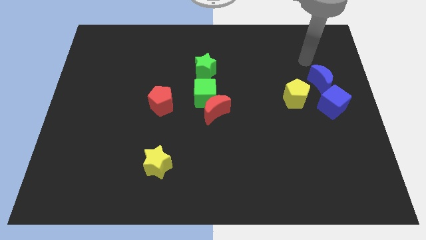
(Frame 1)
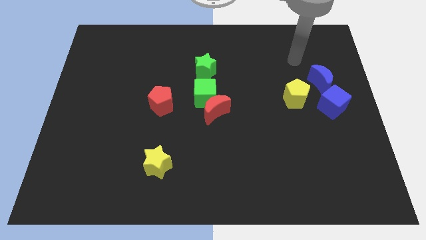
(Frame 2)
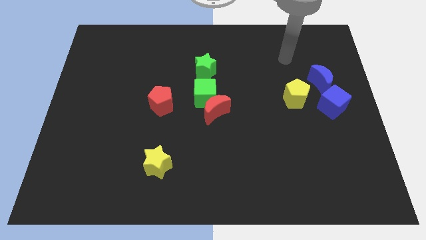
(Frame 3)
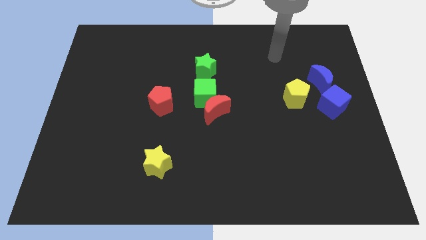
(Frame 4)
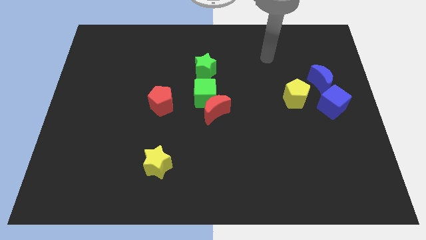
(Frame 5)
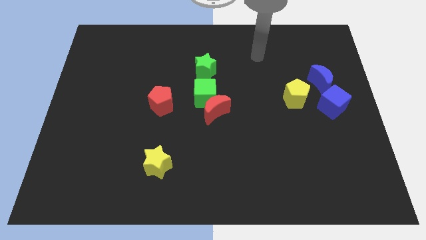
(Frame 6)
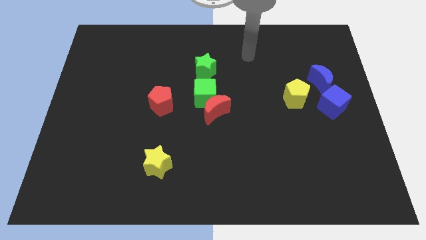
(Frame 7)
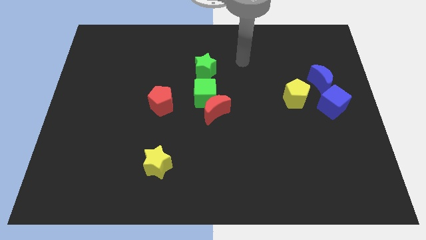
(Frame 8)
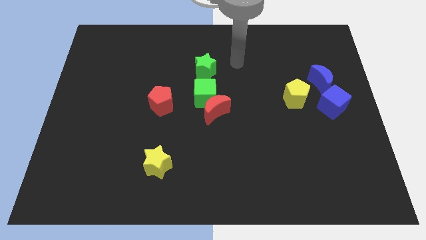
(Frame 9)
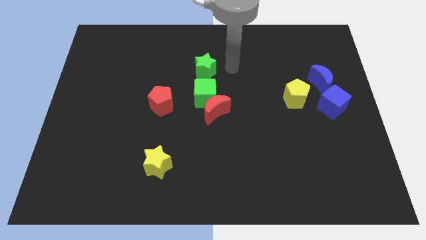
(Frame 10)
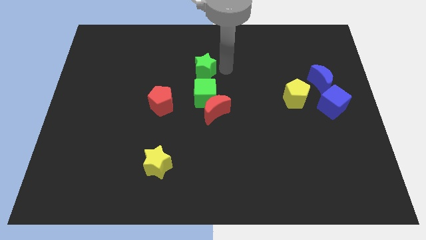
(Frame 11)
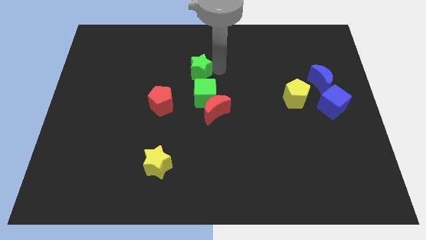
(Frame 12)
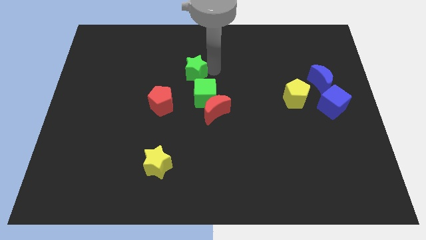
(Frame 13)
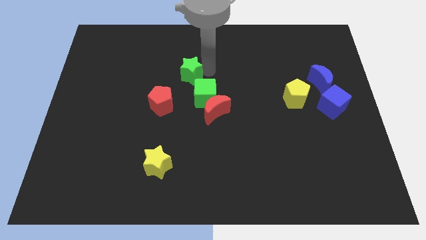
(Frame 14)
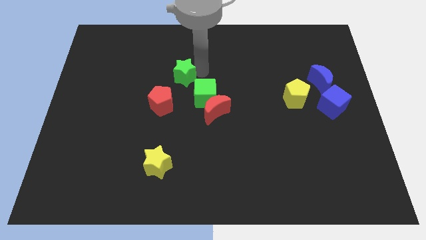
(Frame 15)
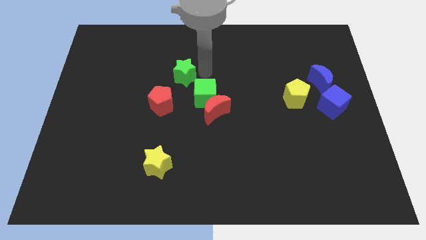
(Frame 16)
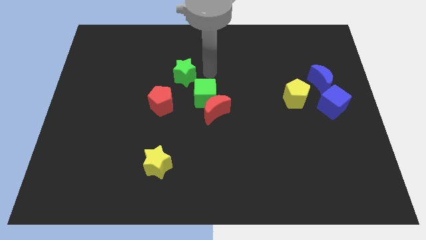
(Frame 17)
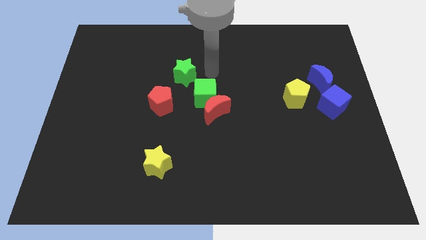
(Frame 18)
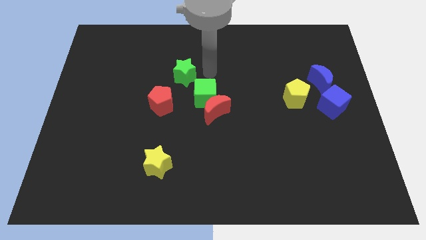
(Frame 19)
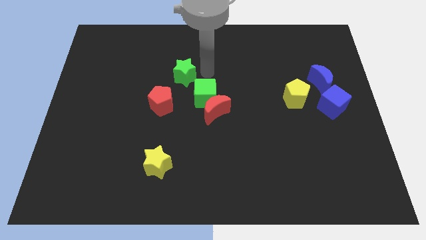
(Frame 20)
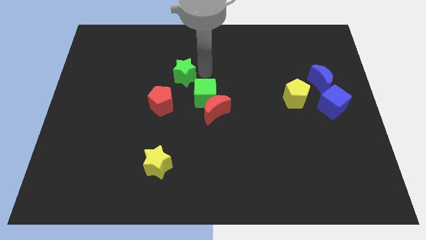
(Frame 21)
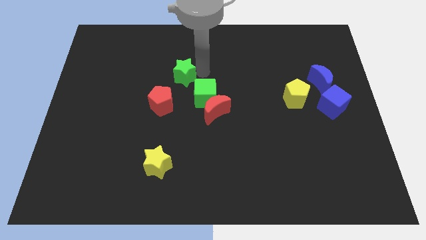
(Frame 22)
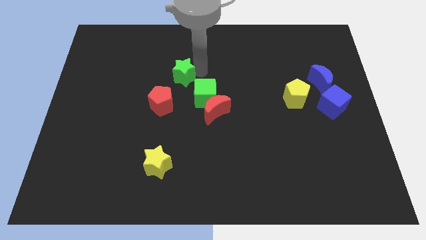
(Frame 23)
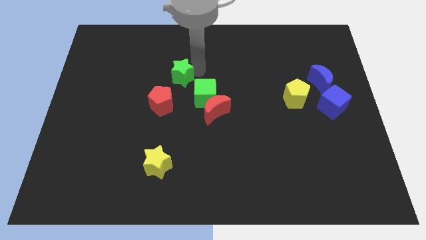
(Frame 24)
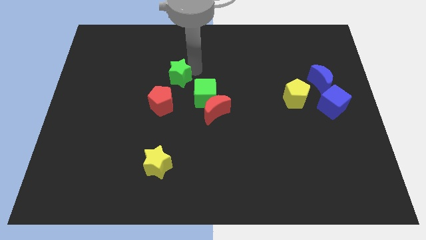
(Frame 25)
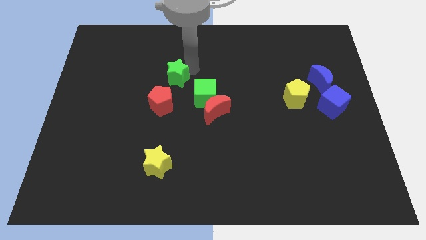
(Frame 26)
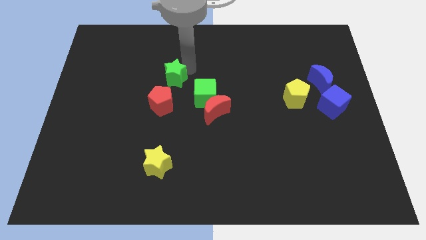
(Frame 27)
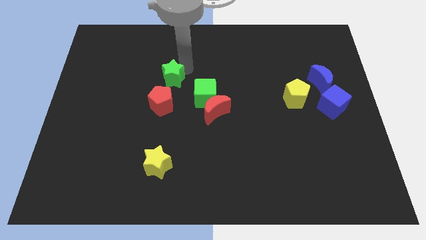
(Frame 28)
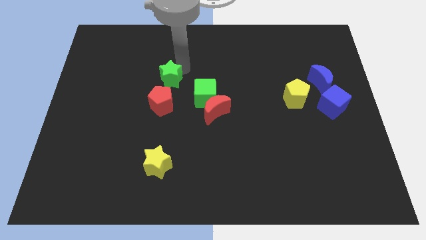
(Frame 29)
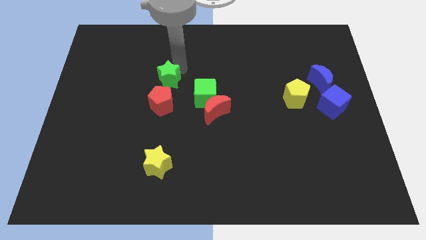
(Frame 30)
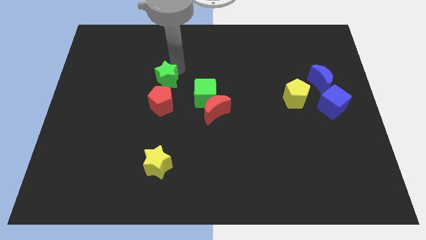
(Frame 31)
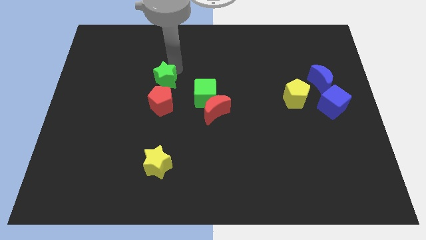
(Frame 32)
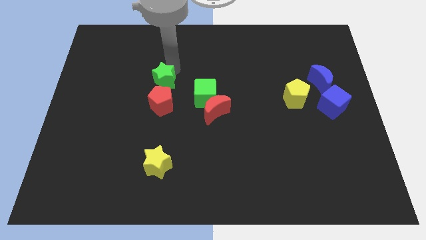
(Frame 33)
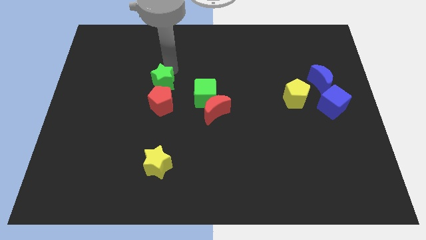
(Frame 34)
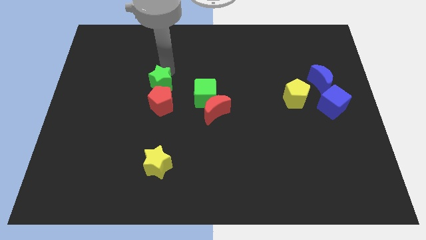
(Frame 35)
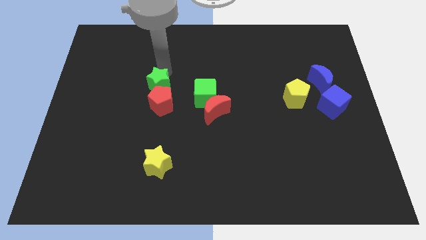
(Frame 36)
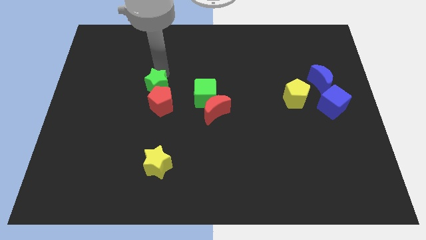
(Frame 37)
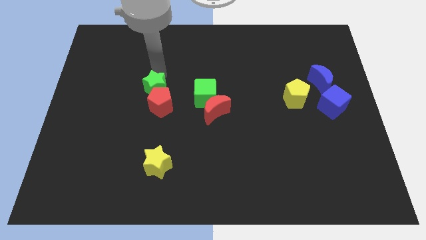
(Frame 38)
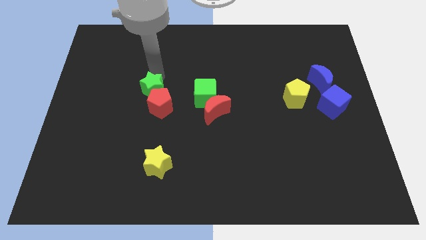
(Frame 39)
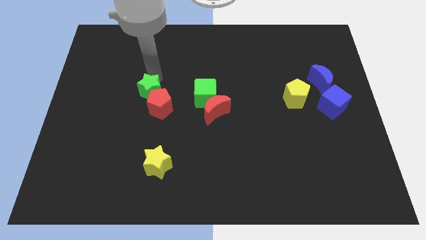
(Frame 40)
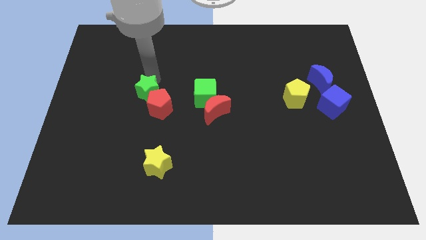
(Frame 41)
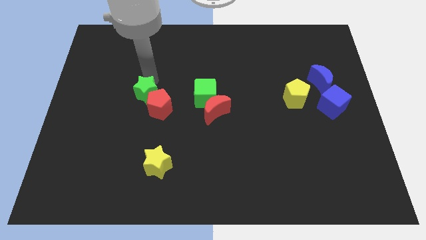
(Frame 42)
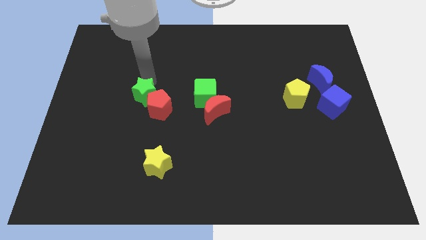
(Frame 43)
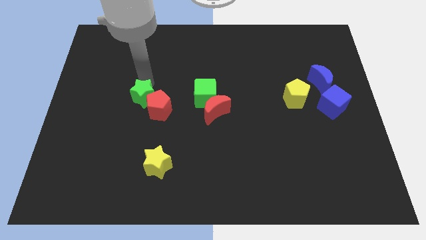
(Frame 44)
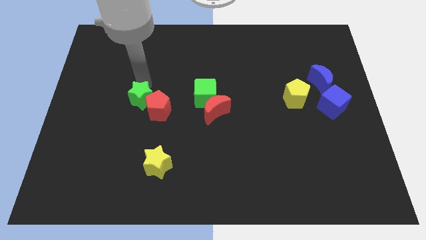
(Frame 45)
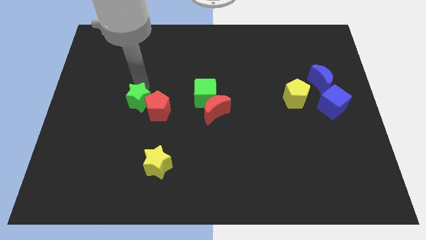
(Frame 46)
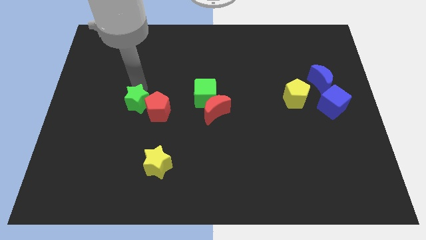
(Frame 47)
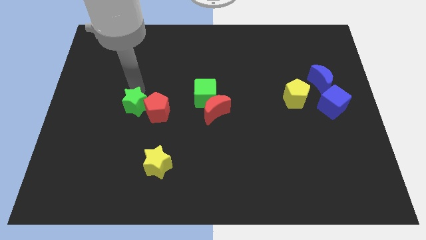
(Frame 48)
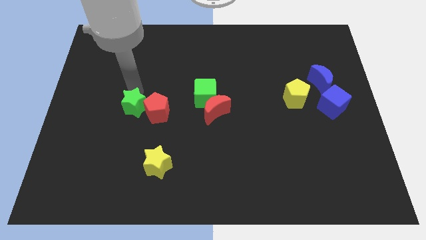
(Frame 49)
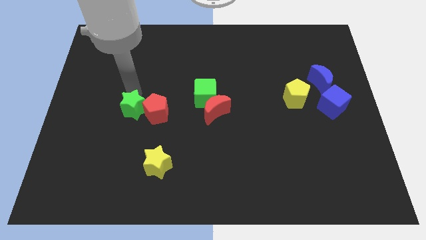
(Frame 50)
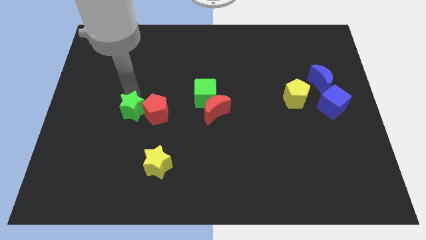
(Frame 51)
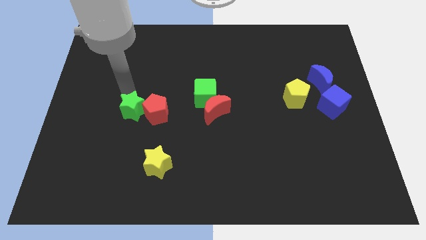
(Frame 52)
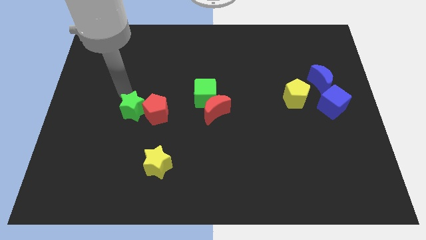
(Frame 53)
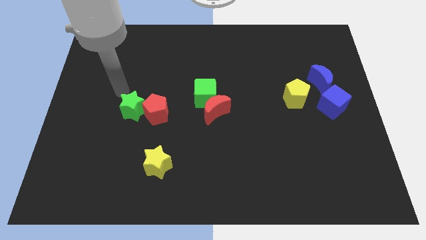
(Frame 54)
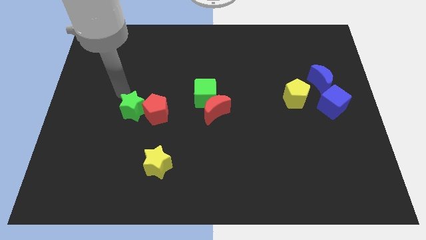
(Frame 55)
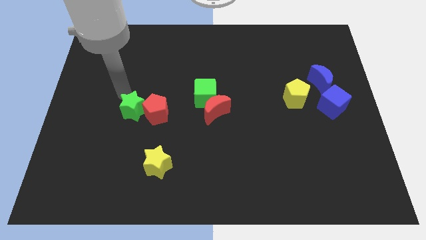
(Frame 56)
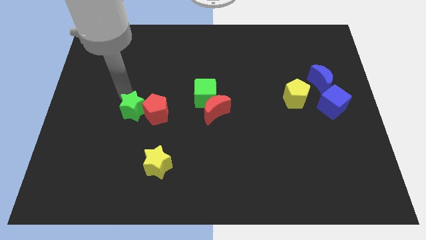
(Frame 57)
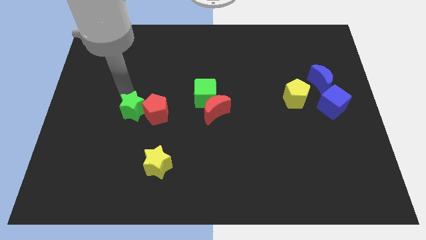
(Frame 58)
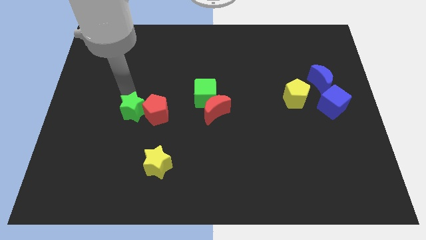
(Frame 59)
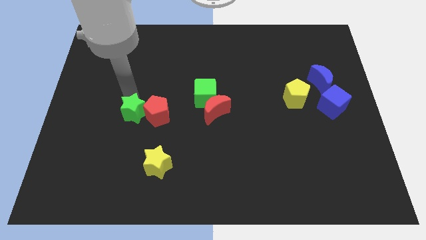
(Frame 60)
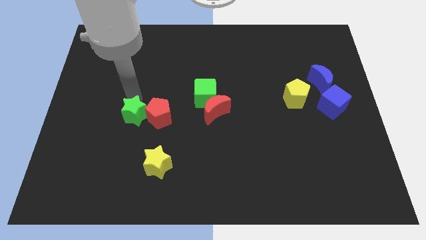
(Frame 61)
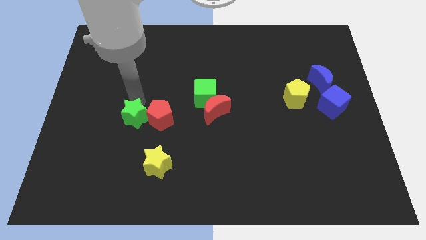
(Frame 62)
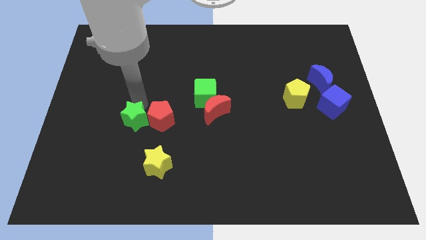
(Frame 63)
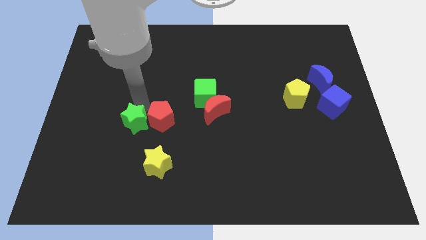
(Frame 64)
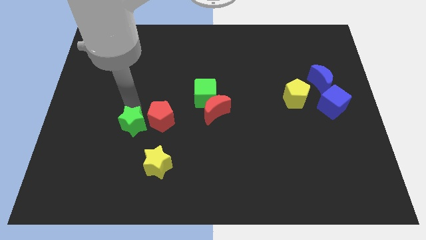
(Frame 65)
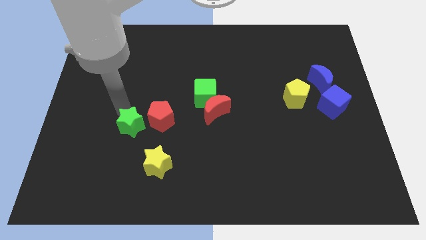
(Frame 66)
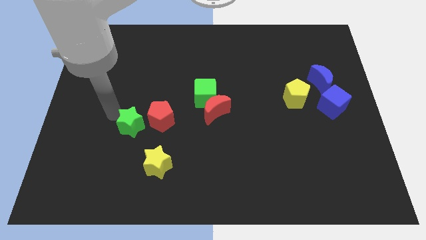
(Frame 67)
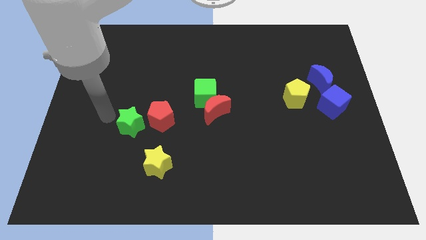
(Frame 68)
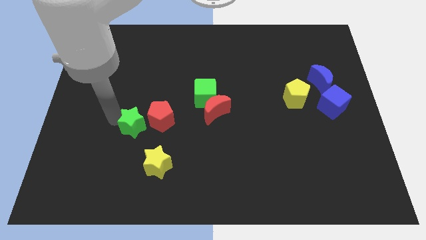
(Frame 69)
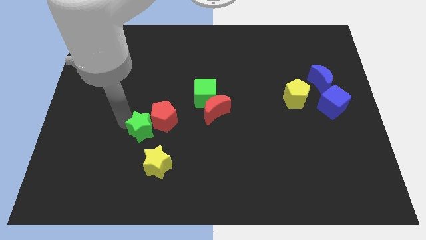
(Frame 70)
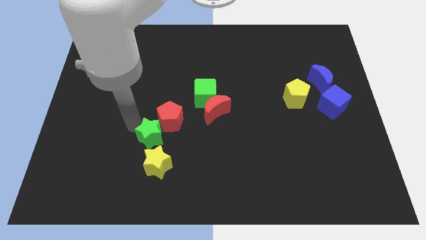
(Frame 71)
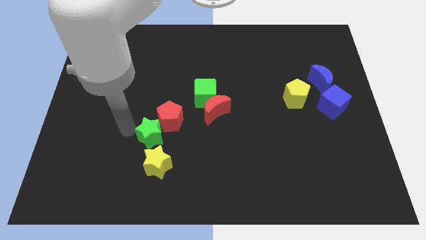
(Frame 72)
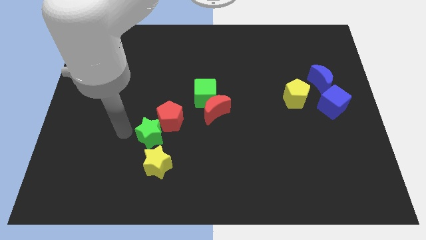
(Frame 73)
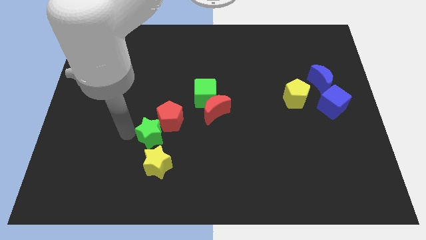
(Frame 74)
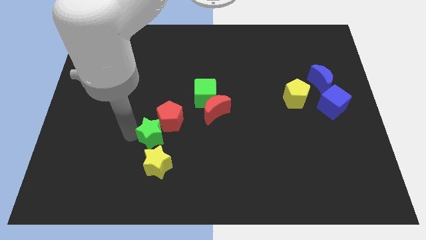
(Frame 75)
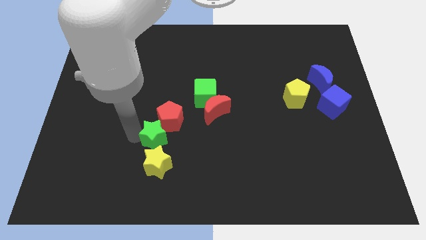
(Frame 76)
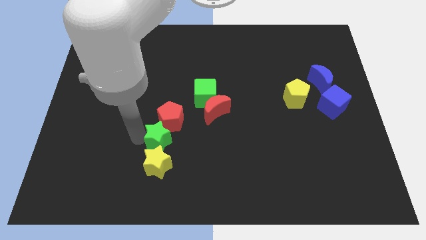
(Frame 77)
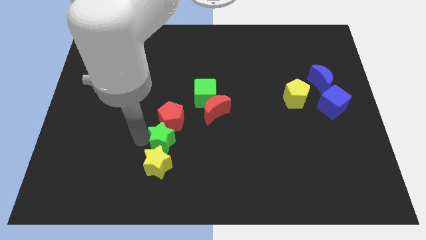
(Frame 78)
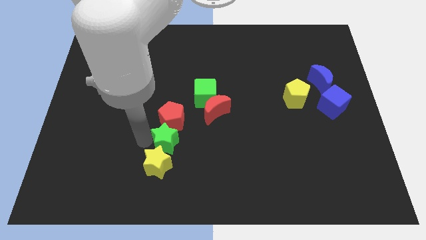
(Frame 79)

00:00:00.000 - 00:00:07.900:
slide the green star to the bottom right side of the red pentagon
